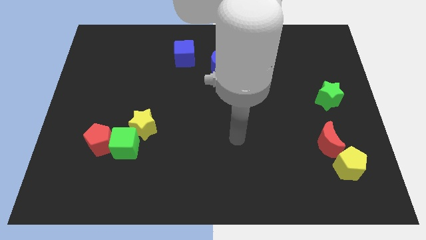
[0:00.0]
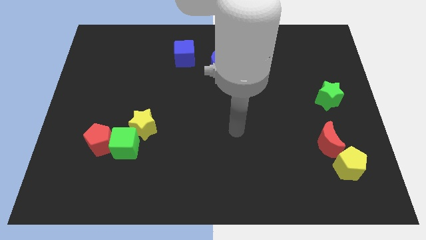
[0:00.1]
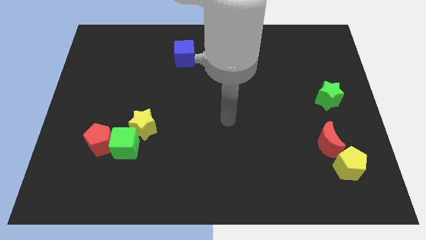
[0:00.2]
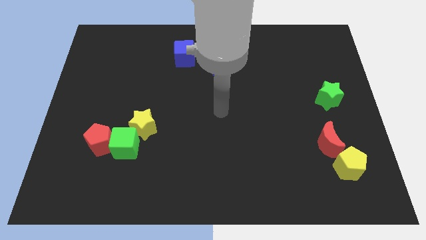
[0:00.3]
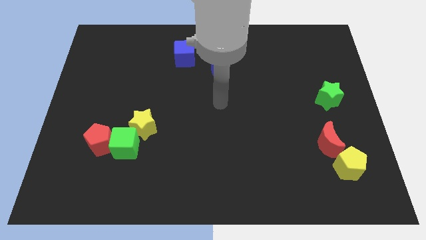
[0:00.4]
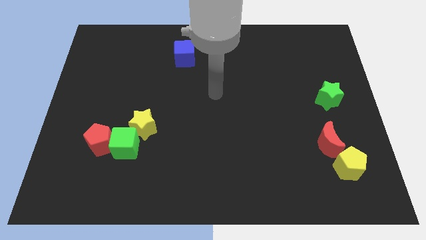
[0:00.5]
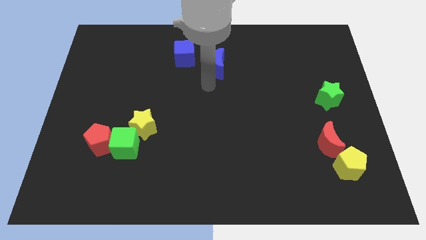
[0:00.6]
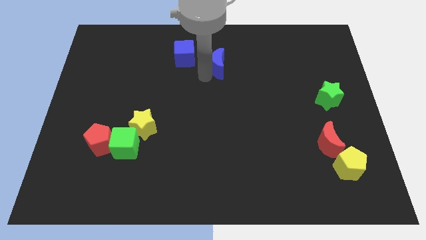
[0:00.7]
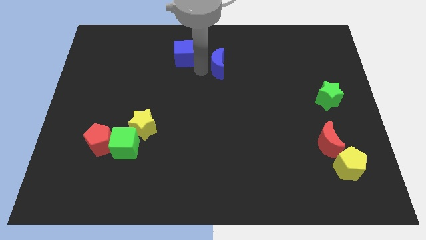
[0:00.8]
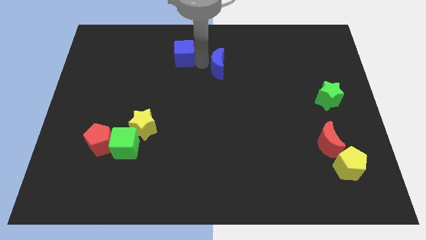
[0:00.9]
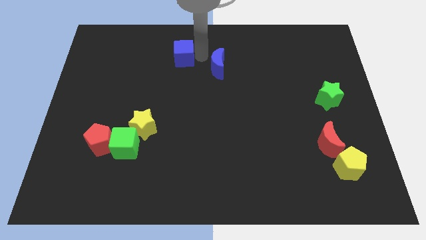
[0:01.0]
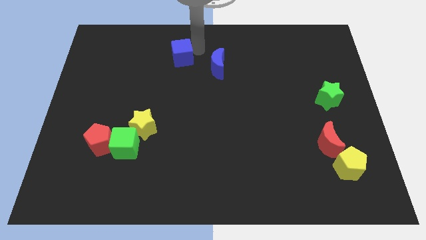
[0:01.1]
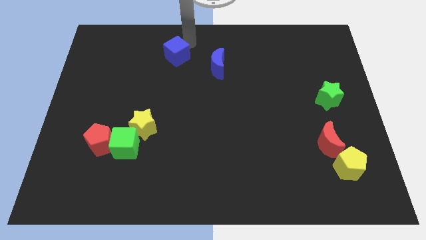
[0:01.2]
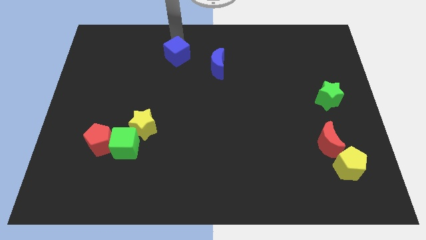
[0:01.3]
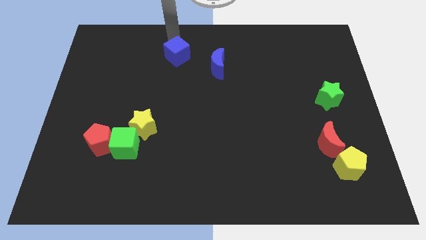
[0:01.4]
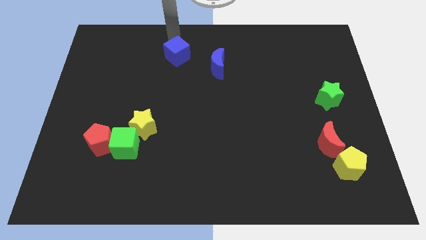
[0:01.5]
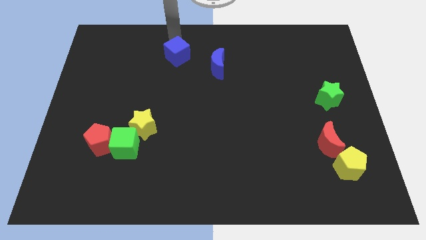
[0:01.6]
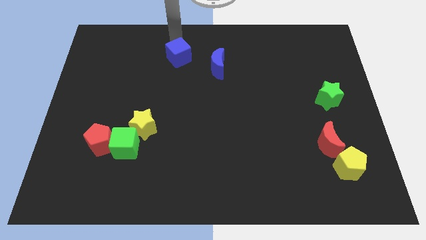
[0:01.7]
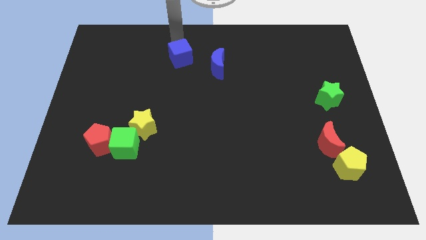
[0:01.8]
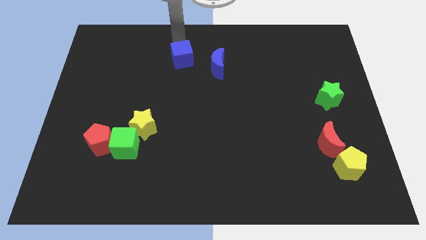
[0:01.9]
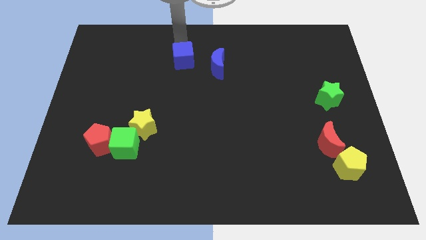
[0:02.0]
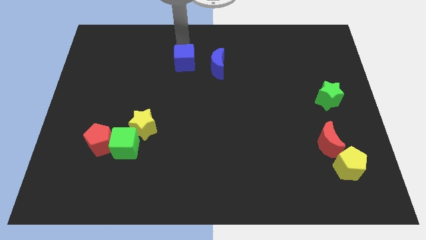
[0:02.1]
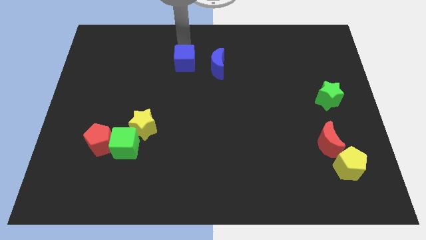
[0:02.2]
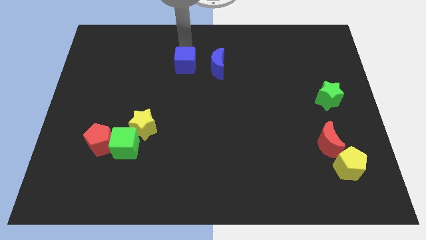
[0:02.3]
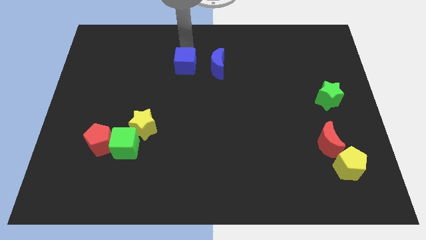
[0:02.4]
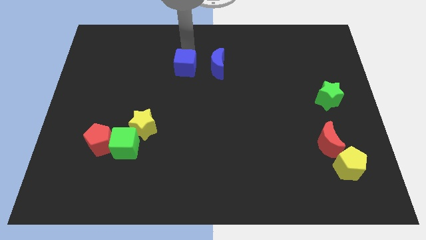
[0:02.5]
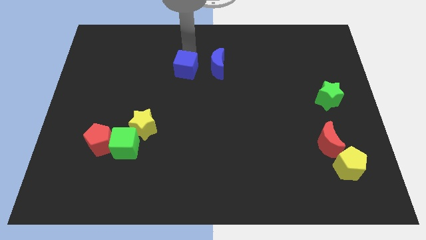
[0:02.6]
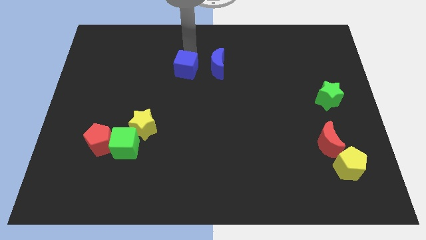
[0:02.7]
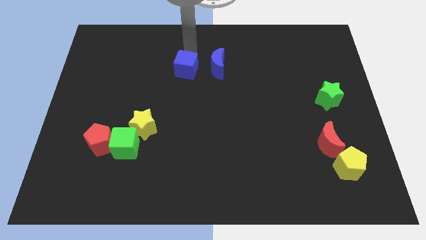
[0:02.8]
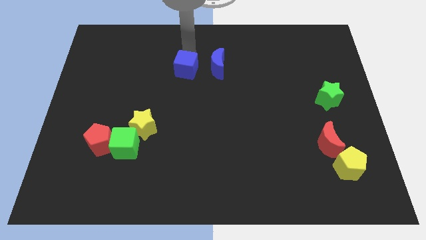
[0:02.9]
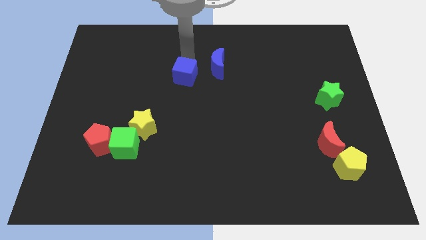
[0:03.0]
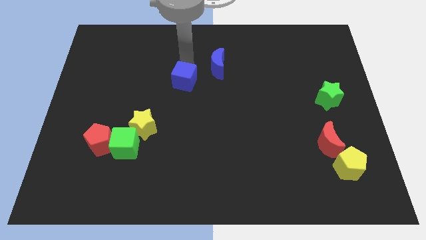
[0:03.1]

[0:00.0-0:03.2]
push the blue cube downwards slightly

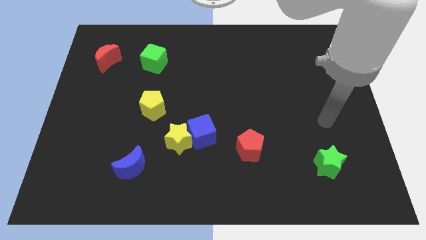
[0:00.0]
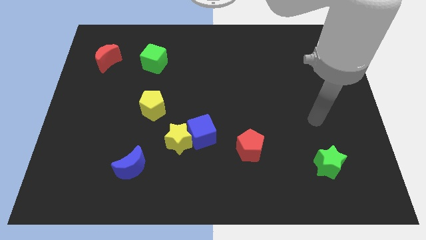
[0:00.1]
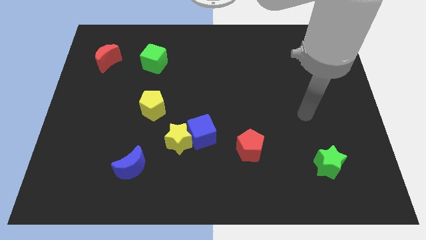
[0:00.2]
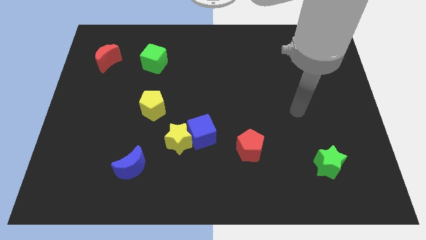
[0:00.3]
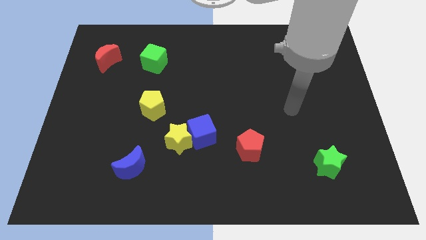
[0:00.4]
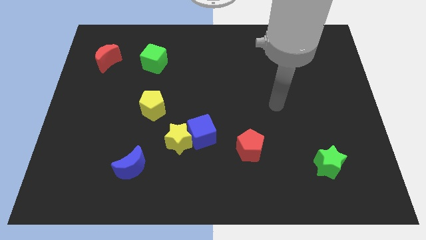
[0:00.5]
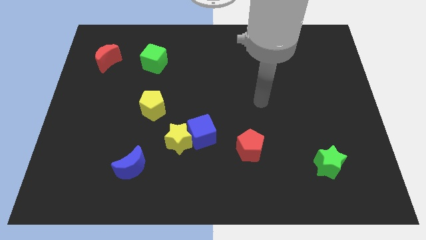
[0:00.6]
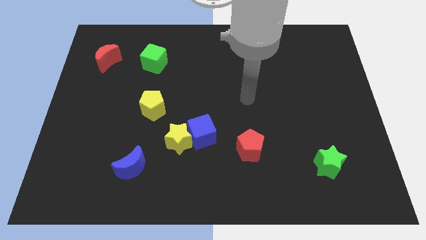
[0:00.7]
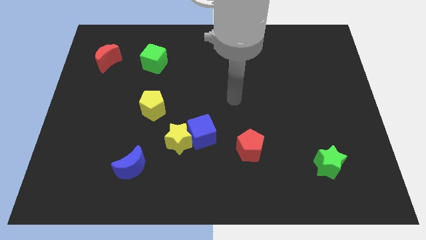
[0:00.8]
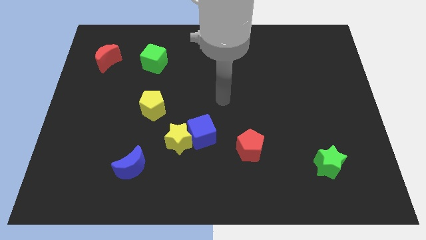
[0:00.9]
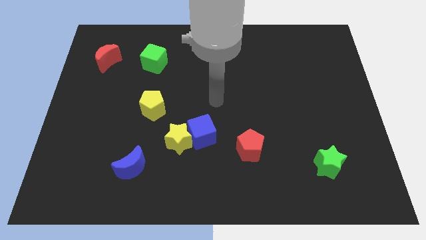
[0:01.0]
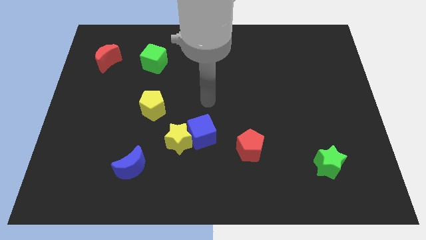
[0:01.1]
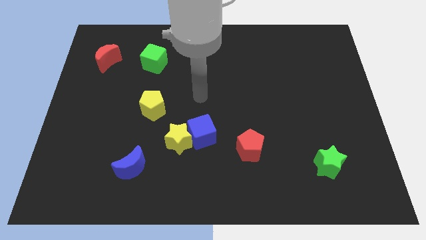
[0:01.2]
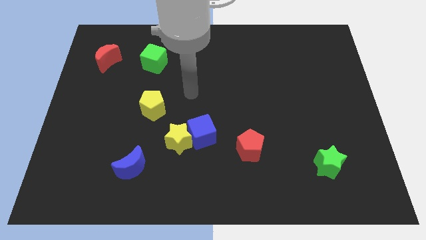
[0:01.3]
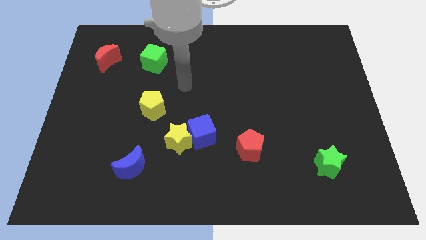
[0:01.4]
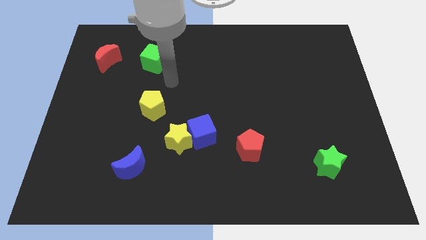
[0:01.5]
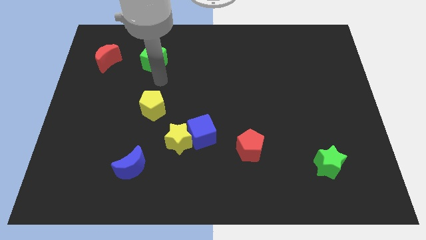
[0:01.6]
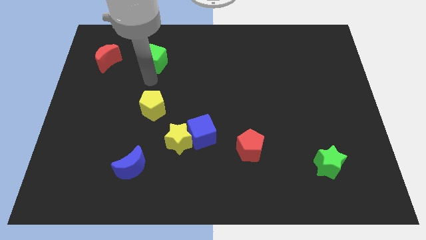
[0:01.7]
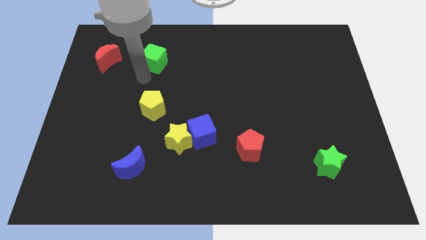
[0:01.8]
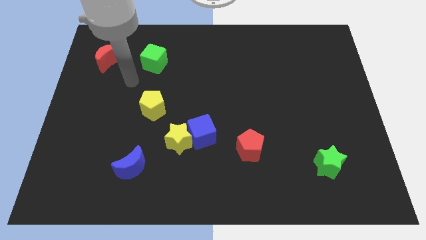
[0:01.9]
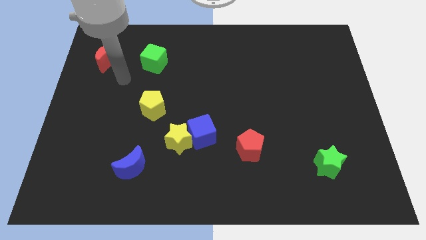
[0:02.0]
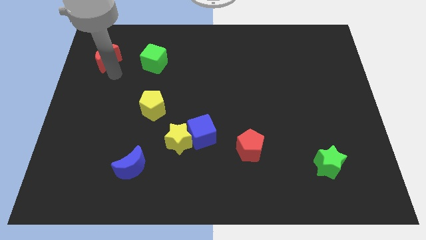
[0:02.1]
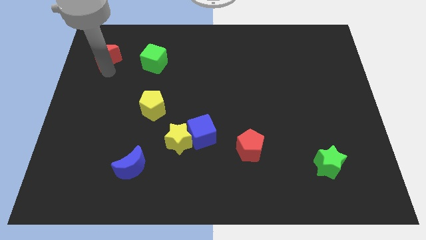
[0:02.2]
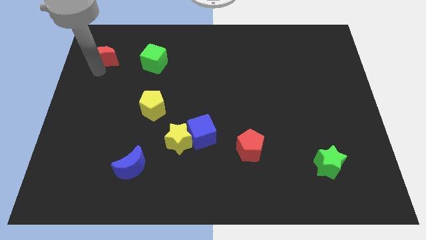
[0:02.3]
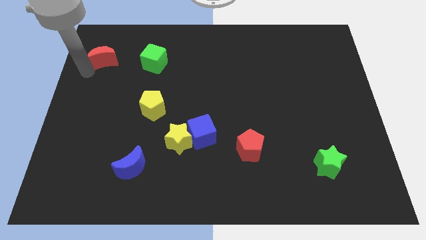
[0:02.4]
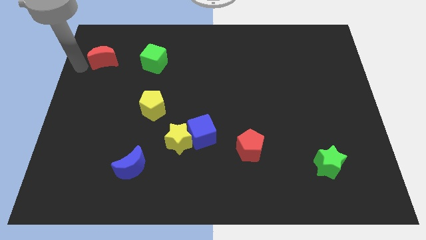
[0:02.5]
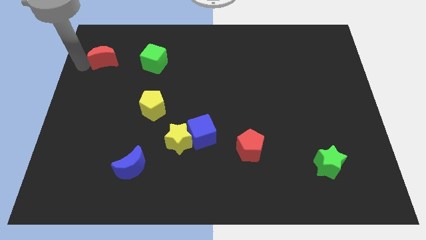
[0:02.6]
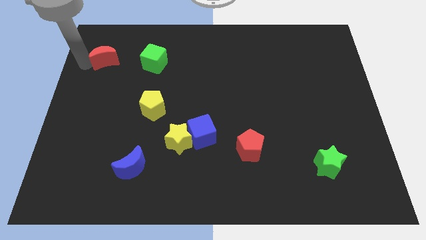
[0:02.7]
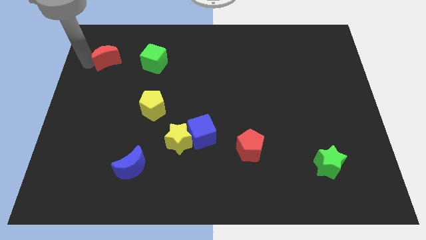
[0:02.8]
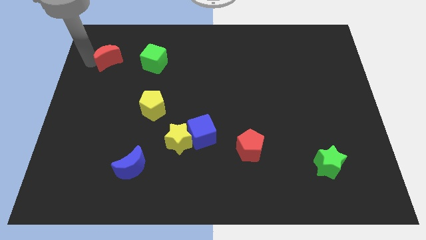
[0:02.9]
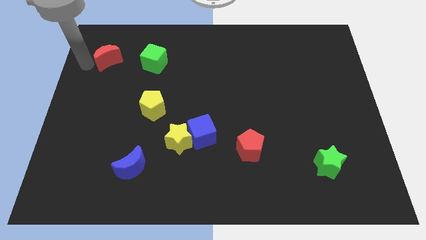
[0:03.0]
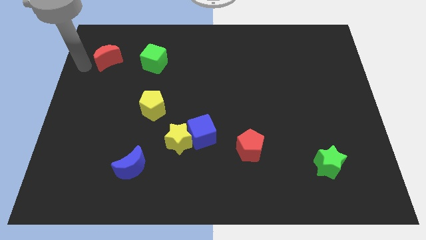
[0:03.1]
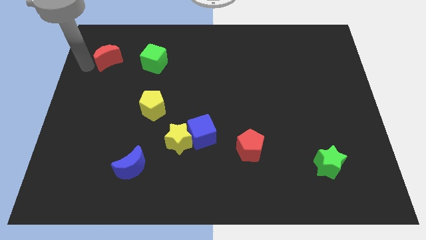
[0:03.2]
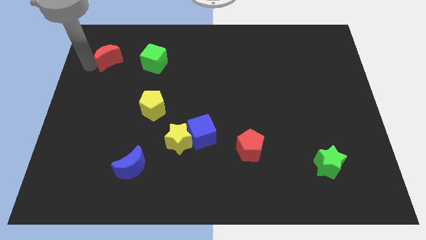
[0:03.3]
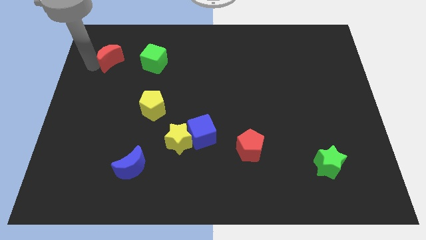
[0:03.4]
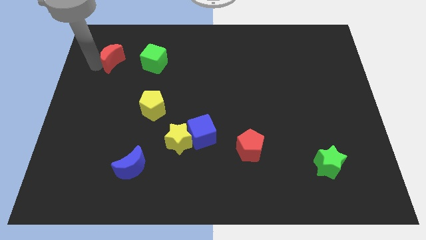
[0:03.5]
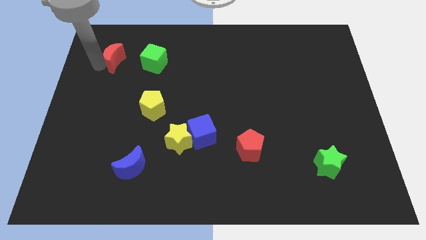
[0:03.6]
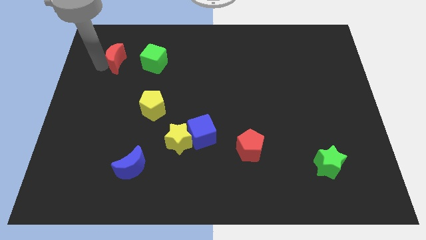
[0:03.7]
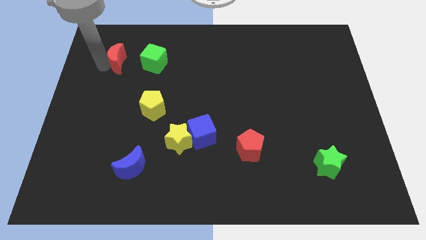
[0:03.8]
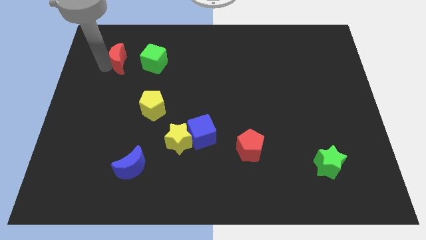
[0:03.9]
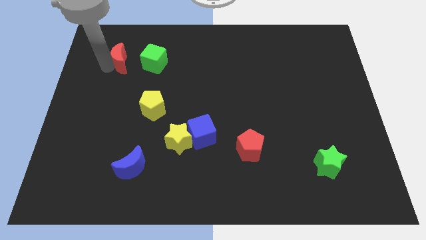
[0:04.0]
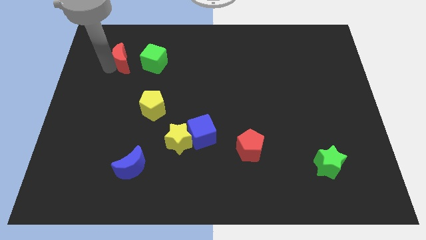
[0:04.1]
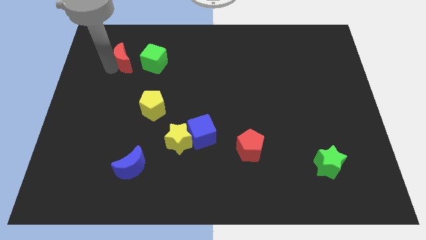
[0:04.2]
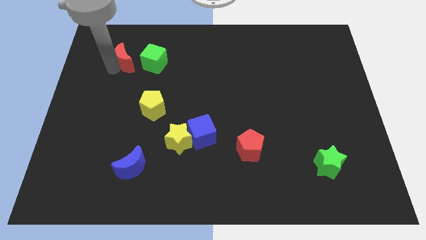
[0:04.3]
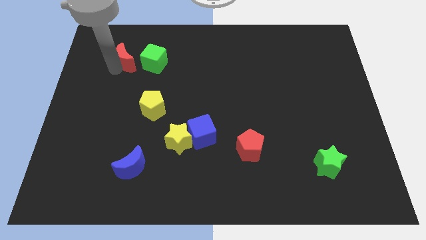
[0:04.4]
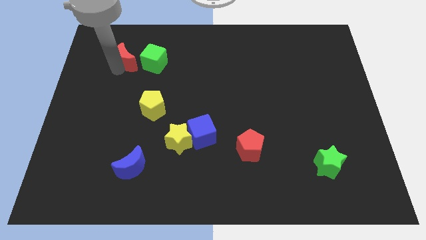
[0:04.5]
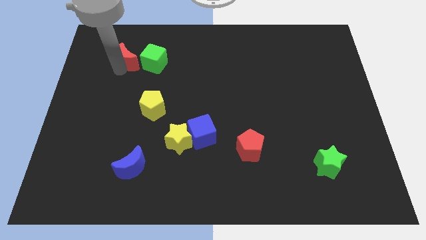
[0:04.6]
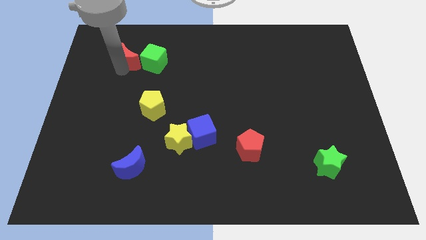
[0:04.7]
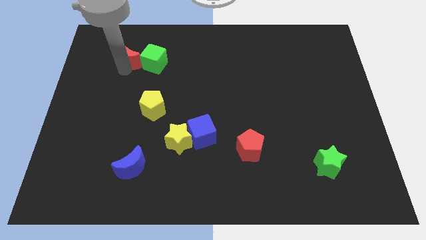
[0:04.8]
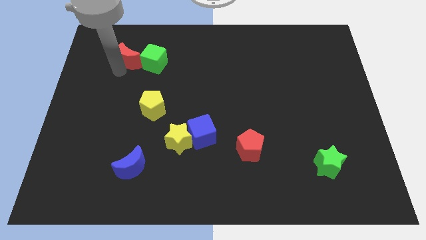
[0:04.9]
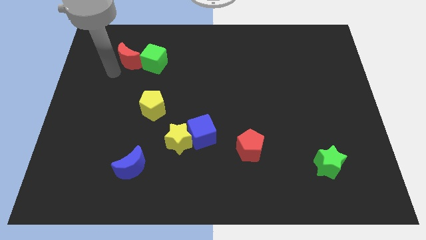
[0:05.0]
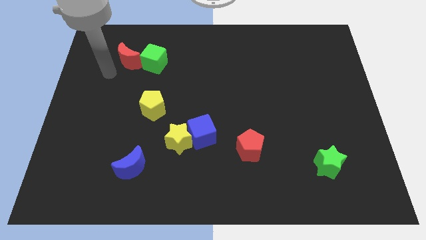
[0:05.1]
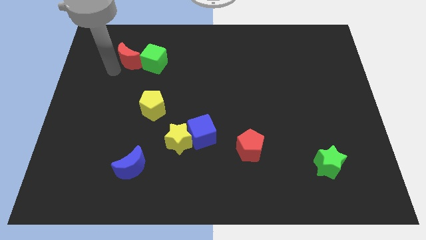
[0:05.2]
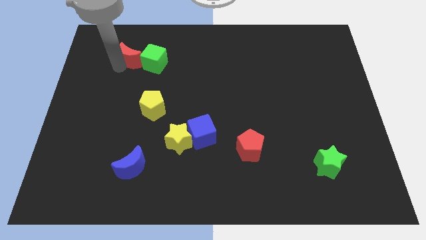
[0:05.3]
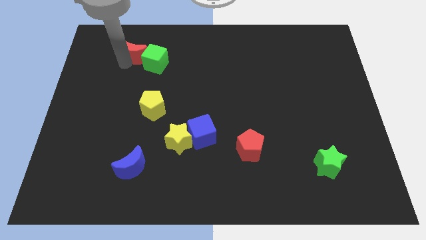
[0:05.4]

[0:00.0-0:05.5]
slightly move the red moon to the right
